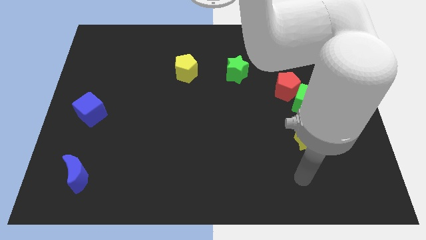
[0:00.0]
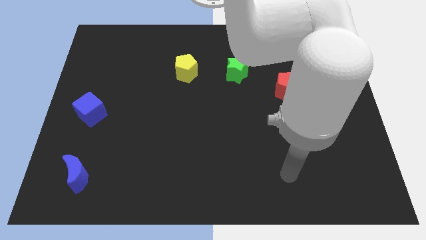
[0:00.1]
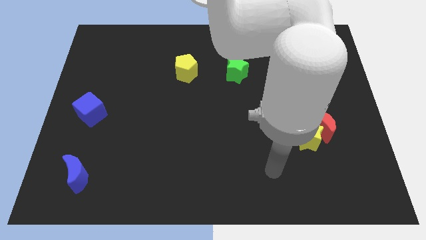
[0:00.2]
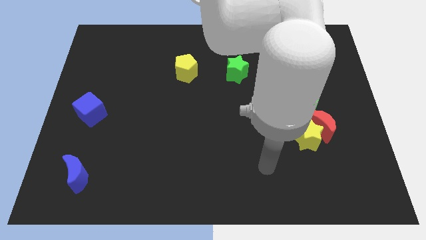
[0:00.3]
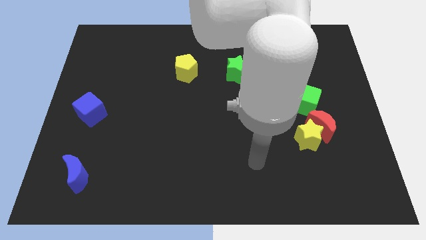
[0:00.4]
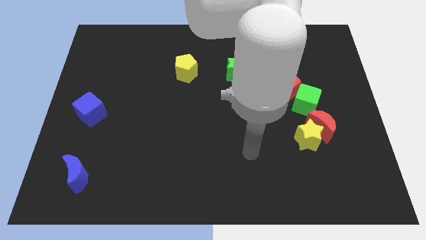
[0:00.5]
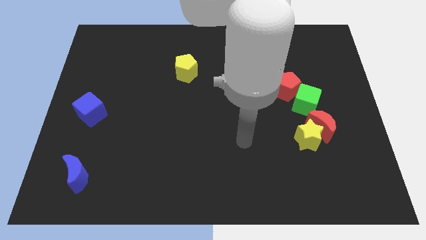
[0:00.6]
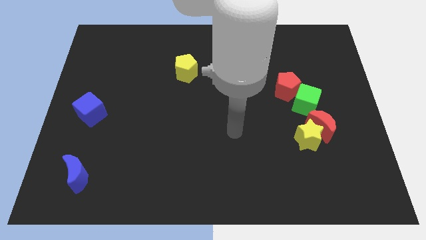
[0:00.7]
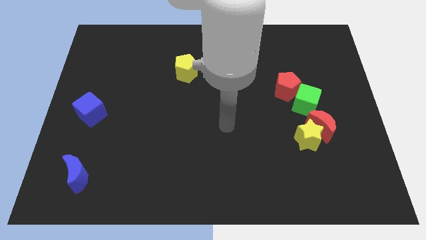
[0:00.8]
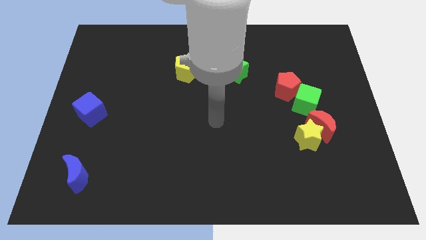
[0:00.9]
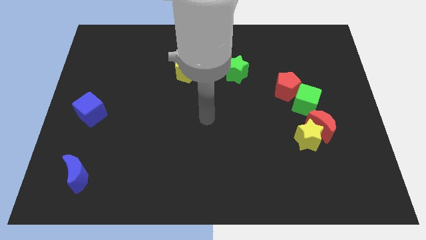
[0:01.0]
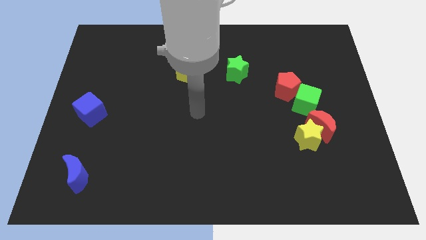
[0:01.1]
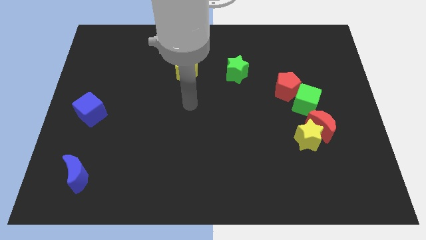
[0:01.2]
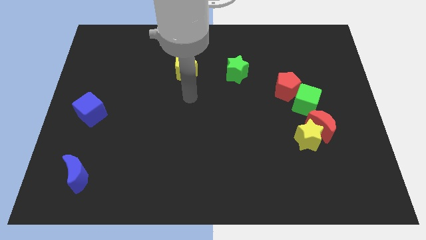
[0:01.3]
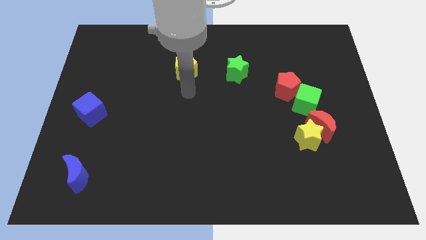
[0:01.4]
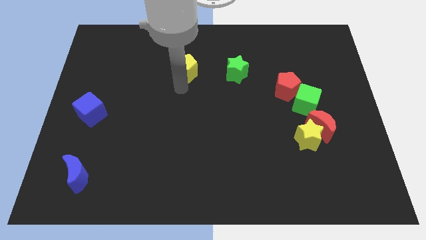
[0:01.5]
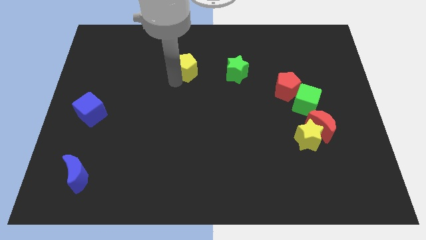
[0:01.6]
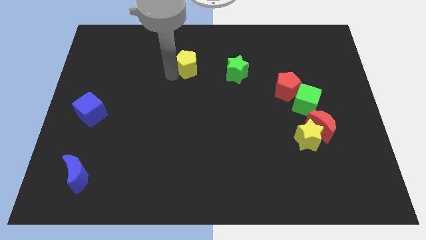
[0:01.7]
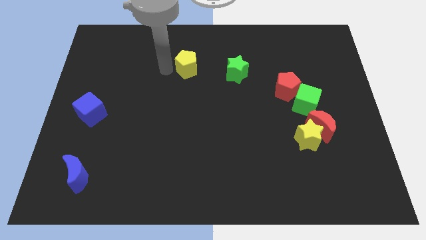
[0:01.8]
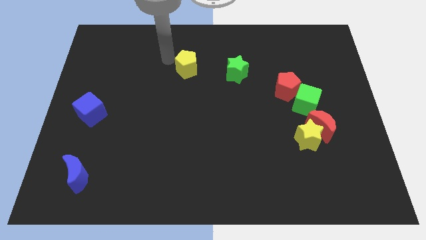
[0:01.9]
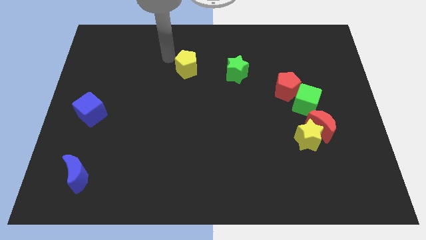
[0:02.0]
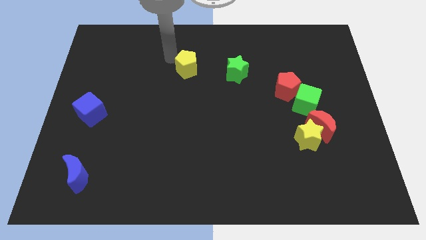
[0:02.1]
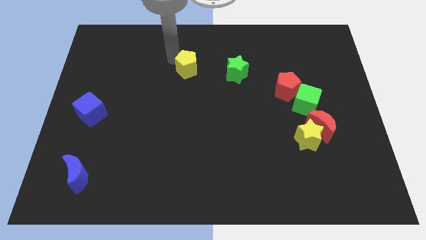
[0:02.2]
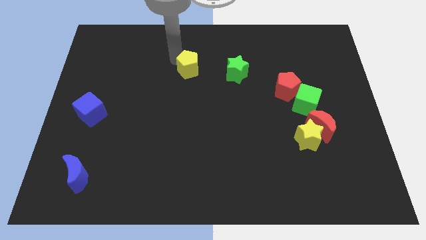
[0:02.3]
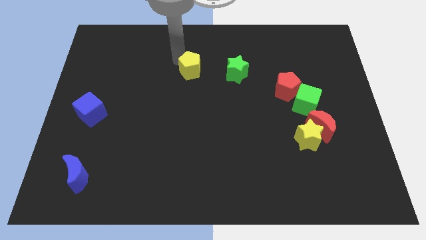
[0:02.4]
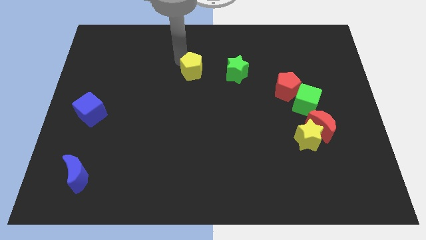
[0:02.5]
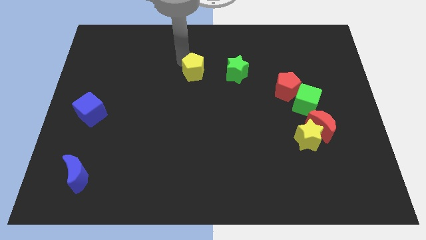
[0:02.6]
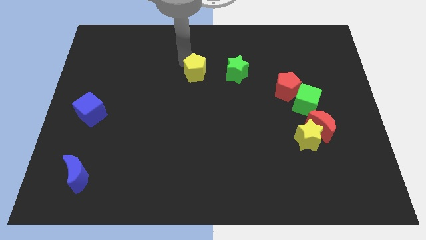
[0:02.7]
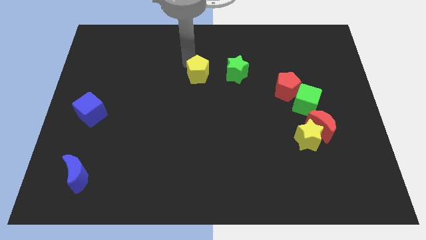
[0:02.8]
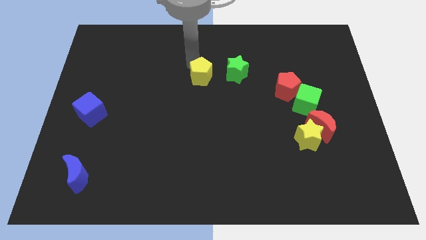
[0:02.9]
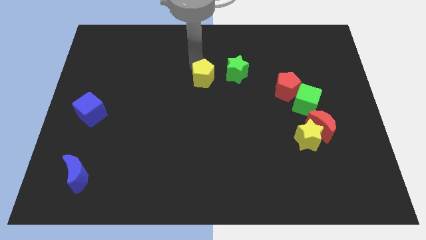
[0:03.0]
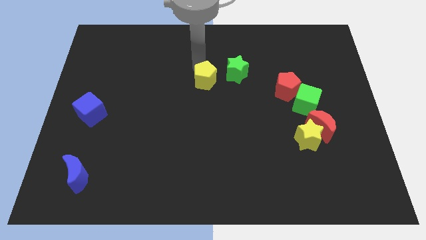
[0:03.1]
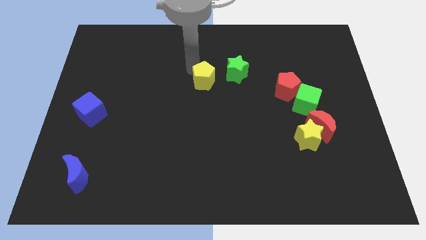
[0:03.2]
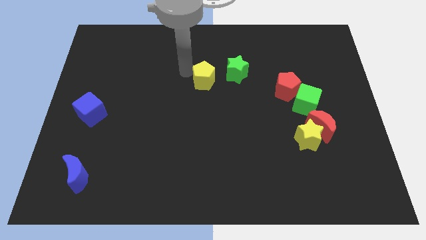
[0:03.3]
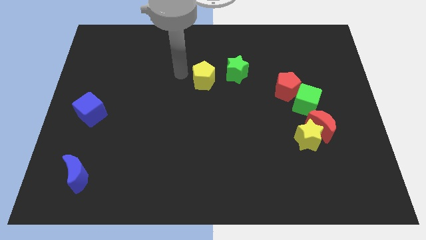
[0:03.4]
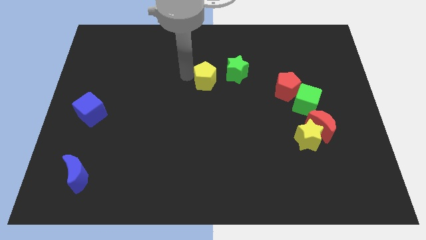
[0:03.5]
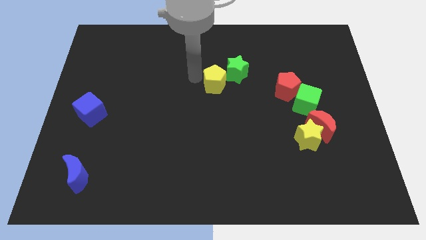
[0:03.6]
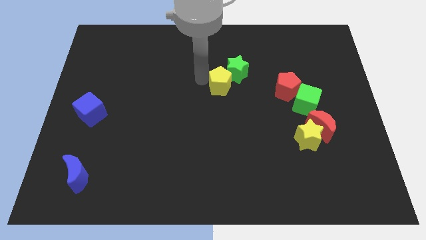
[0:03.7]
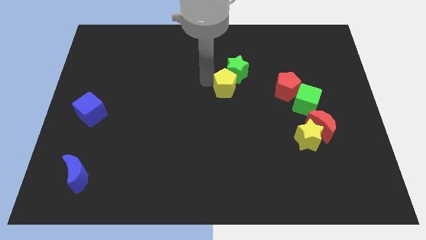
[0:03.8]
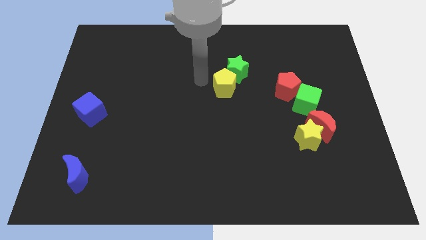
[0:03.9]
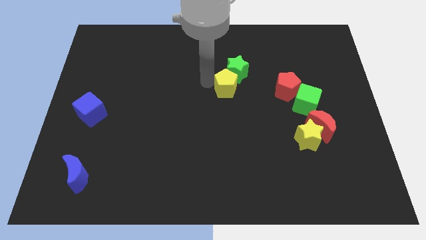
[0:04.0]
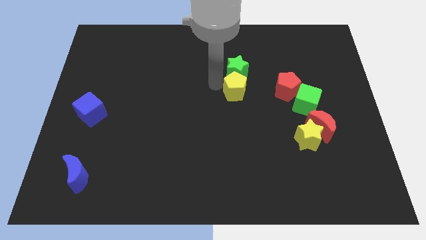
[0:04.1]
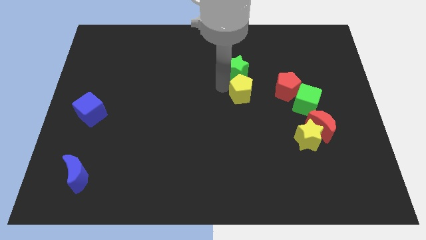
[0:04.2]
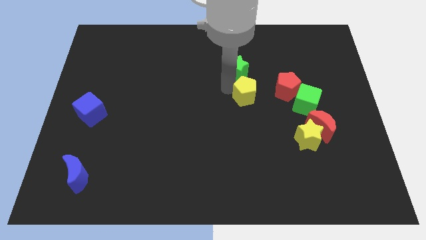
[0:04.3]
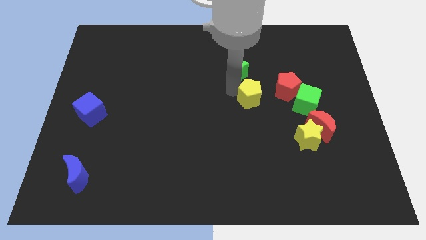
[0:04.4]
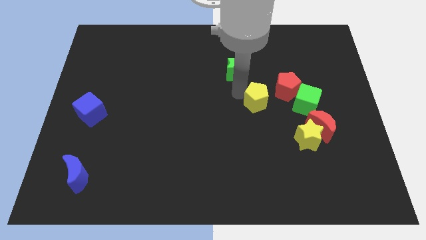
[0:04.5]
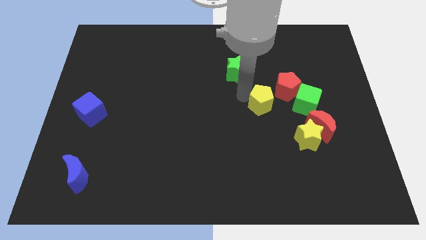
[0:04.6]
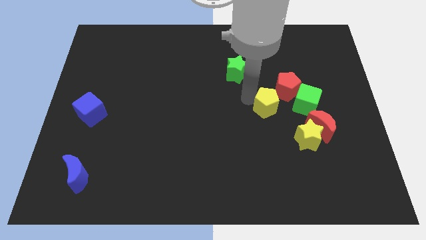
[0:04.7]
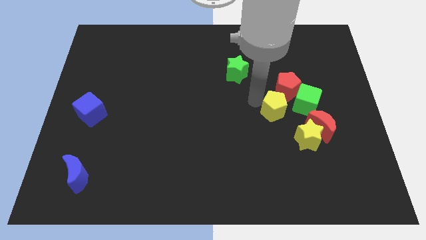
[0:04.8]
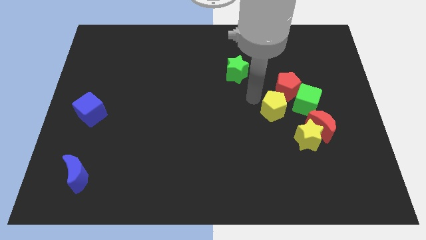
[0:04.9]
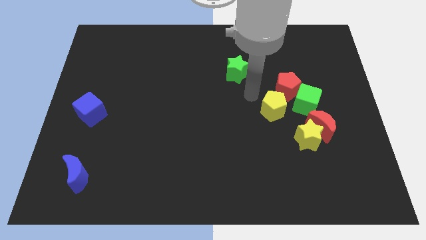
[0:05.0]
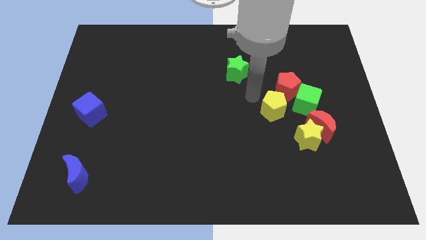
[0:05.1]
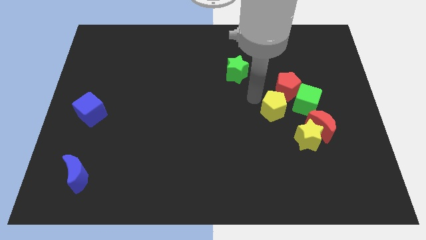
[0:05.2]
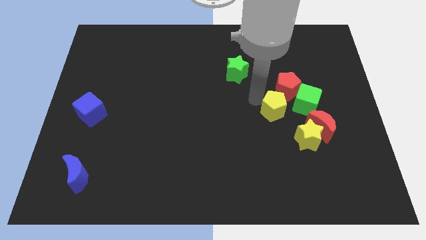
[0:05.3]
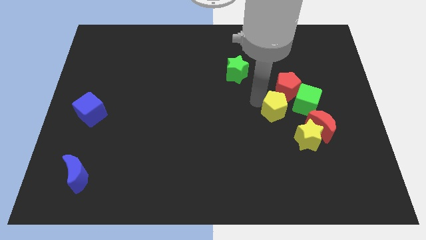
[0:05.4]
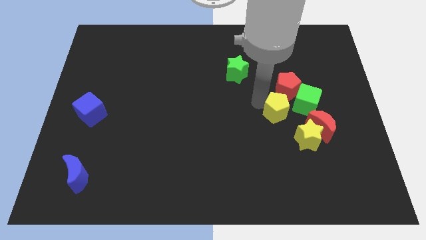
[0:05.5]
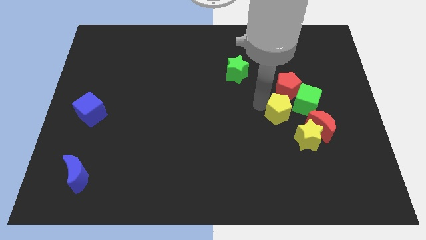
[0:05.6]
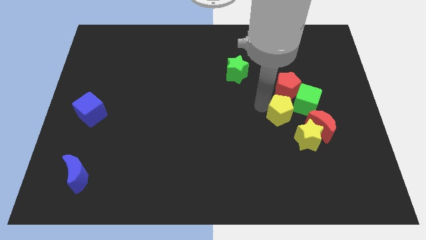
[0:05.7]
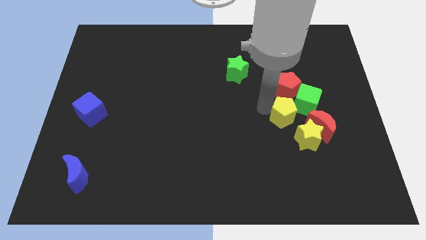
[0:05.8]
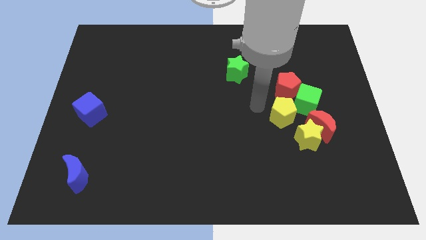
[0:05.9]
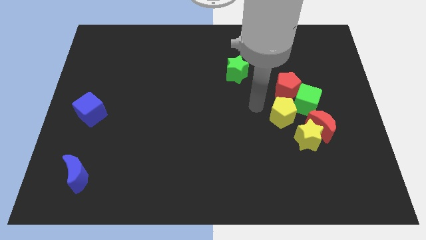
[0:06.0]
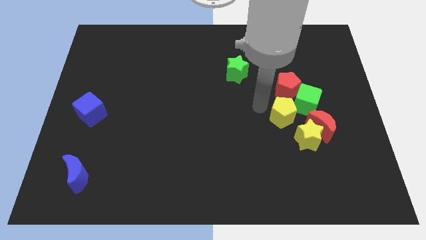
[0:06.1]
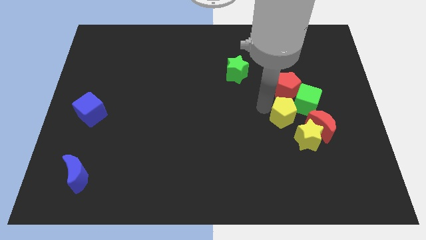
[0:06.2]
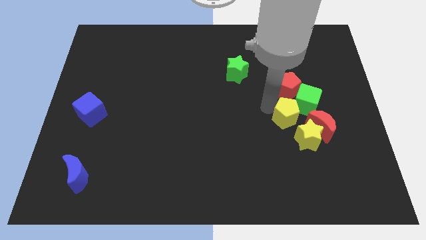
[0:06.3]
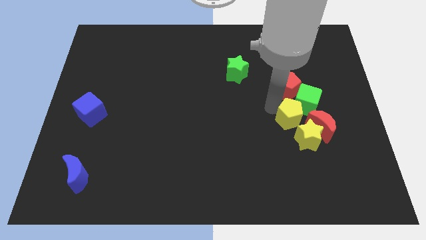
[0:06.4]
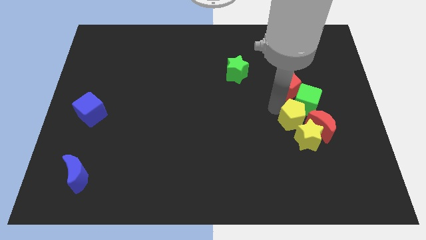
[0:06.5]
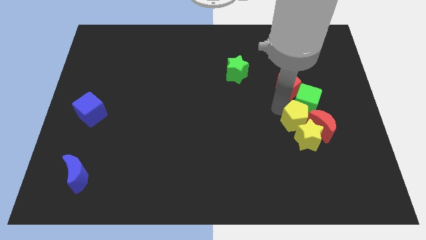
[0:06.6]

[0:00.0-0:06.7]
slide the yellow pentagon close to the red moon
